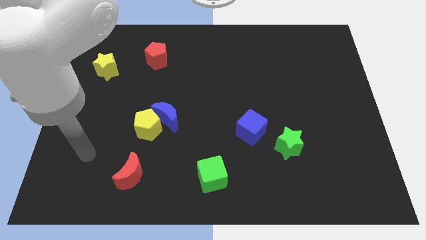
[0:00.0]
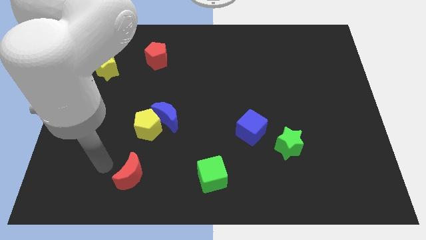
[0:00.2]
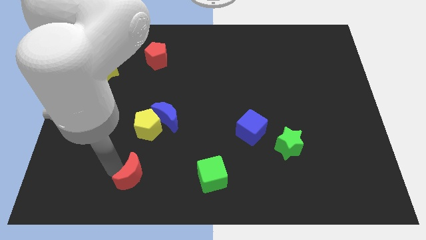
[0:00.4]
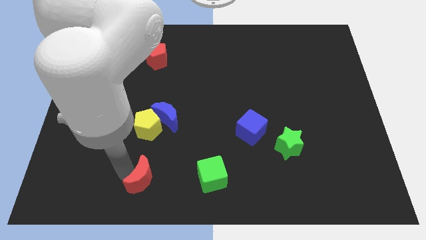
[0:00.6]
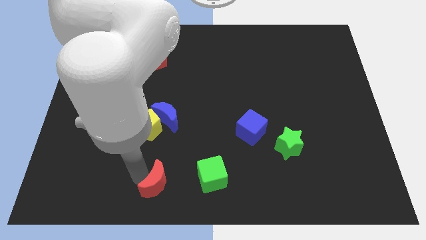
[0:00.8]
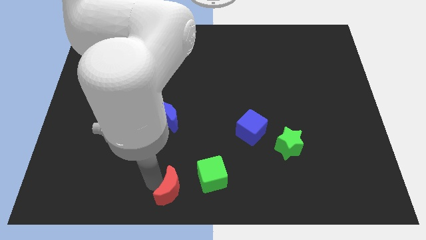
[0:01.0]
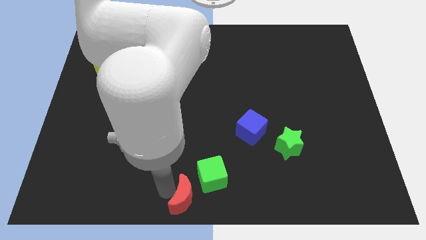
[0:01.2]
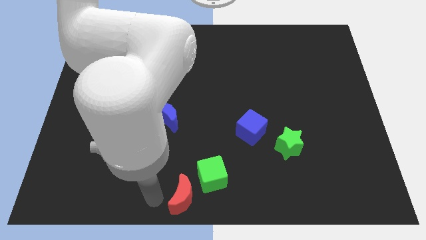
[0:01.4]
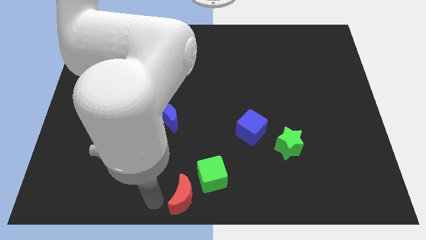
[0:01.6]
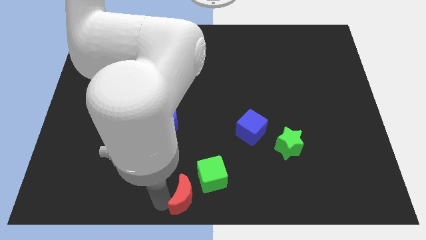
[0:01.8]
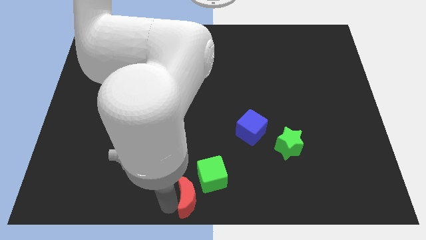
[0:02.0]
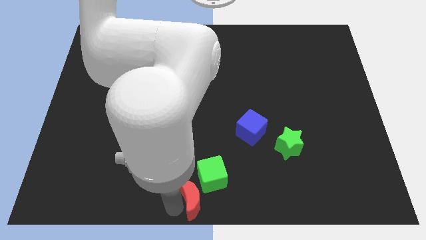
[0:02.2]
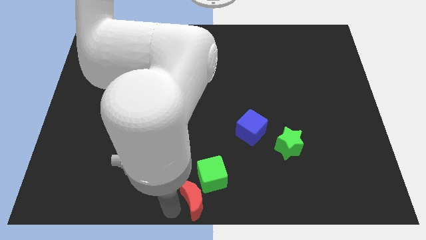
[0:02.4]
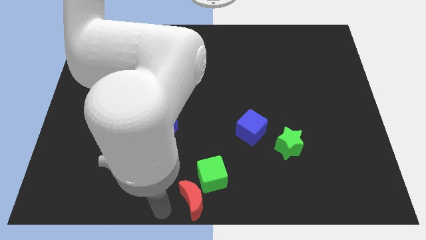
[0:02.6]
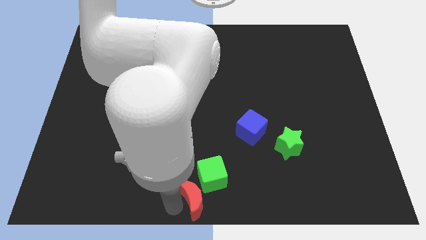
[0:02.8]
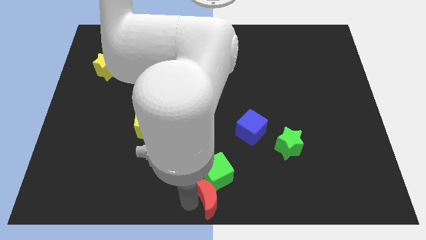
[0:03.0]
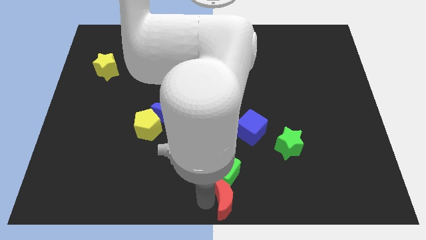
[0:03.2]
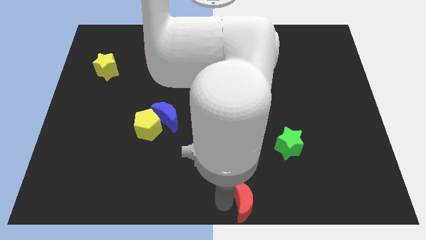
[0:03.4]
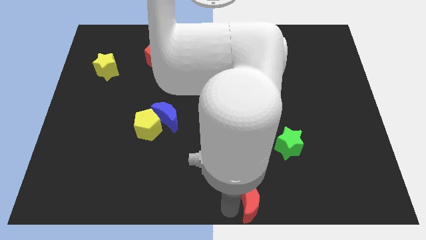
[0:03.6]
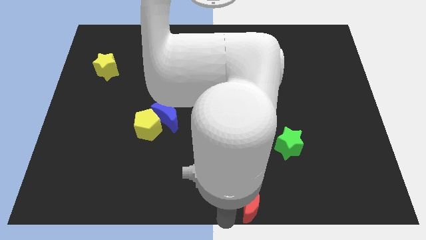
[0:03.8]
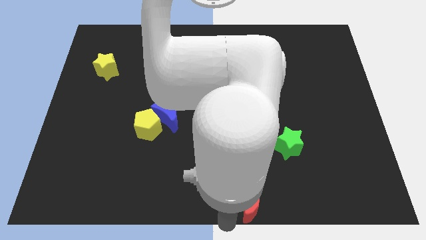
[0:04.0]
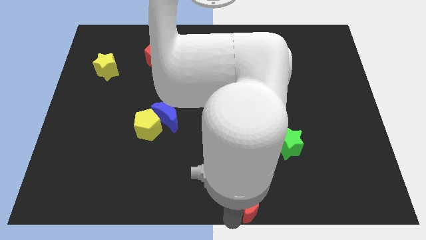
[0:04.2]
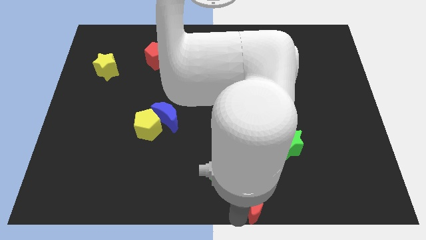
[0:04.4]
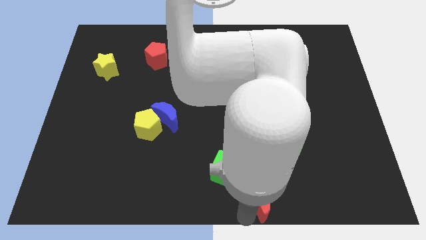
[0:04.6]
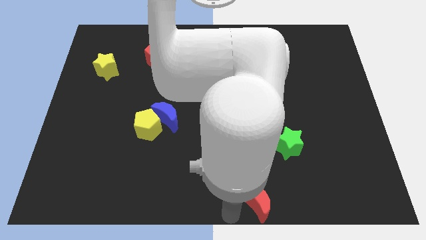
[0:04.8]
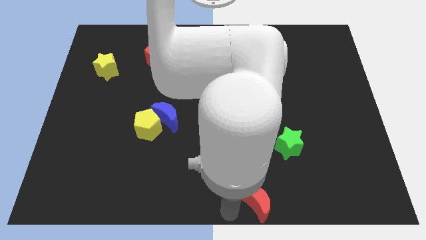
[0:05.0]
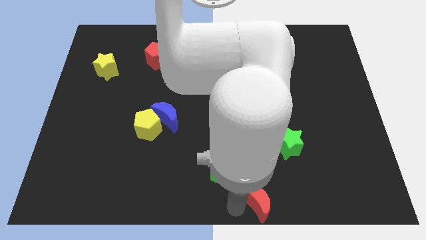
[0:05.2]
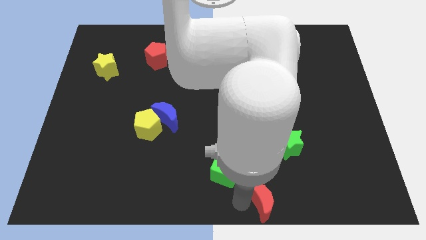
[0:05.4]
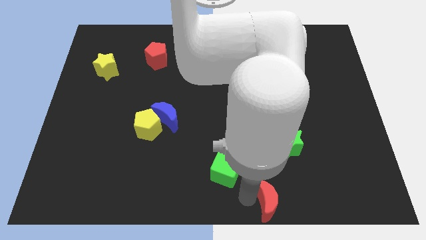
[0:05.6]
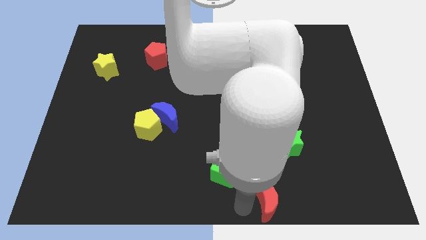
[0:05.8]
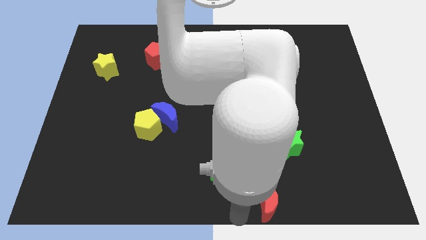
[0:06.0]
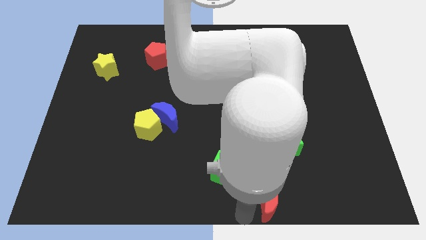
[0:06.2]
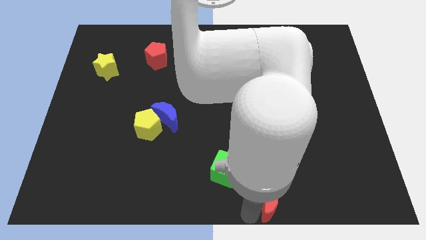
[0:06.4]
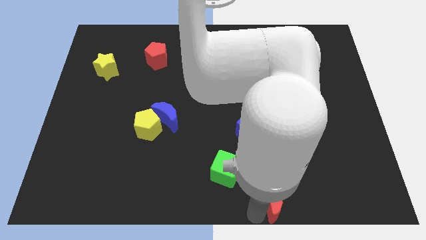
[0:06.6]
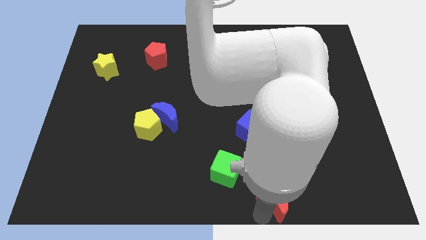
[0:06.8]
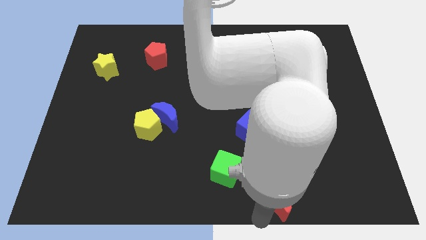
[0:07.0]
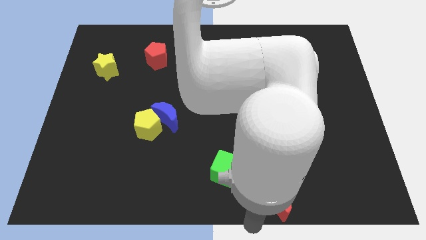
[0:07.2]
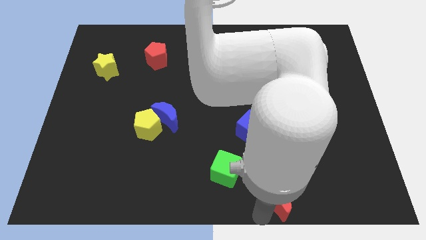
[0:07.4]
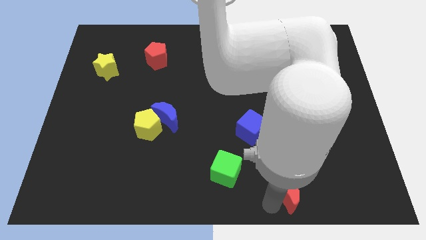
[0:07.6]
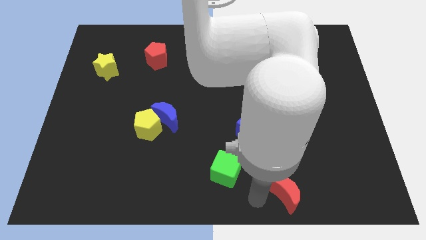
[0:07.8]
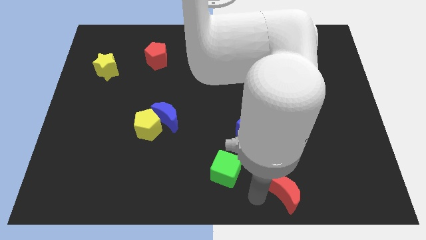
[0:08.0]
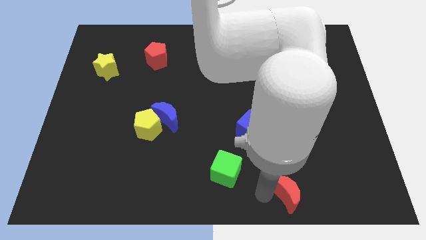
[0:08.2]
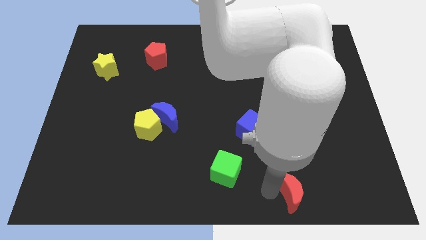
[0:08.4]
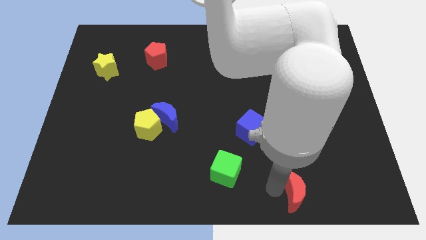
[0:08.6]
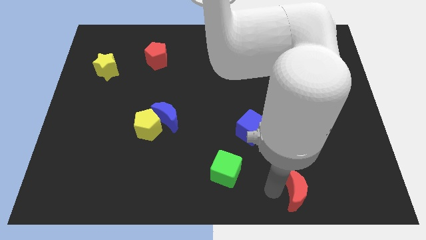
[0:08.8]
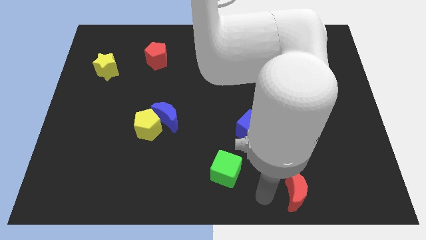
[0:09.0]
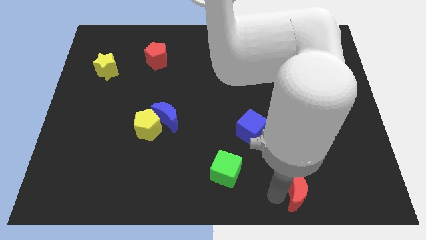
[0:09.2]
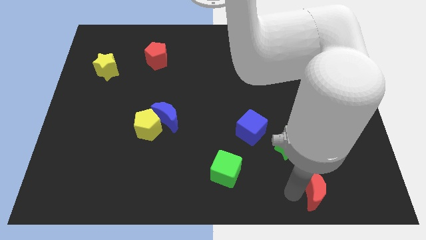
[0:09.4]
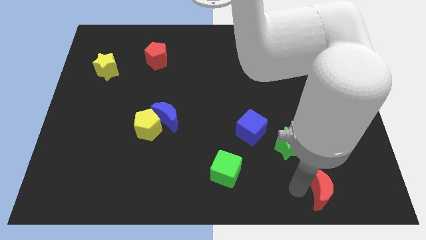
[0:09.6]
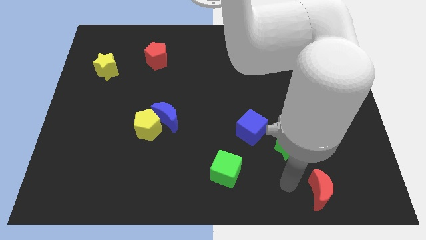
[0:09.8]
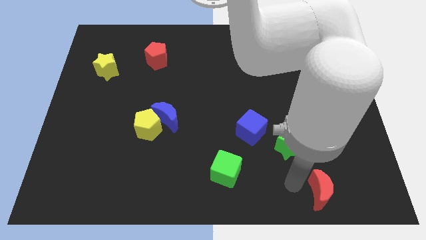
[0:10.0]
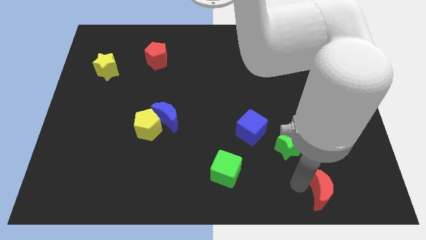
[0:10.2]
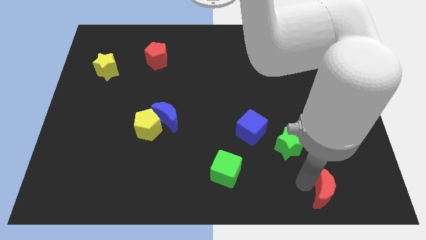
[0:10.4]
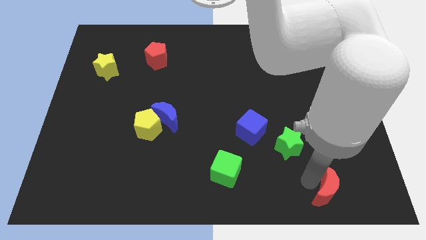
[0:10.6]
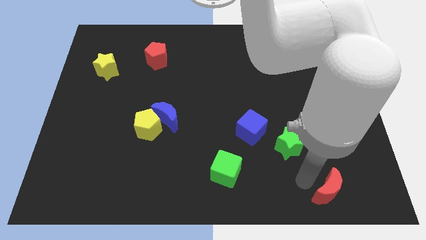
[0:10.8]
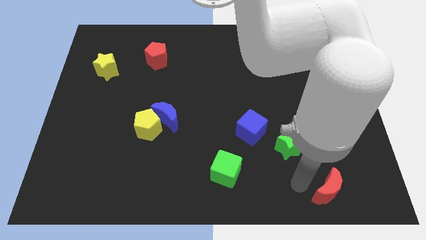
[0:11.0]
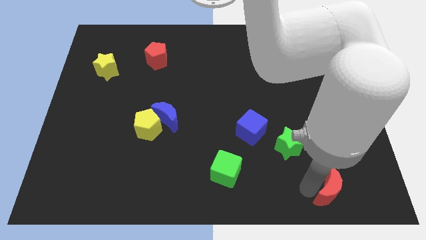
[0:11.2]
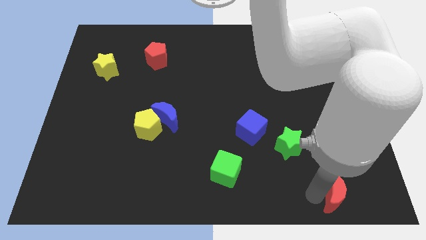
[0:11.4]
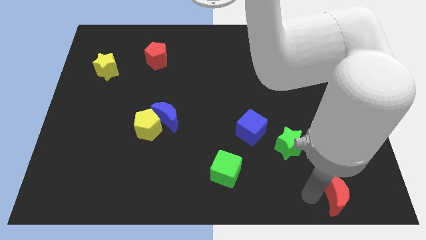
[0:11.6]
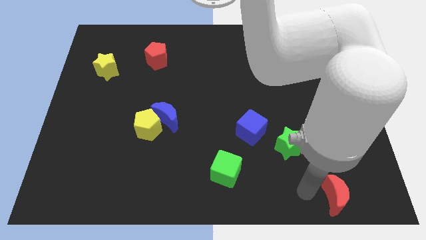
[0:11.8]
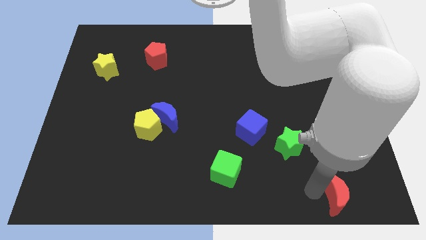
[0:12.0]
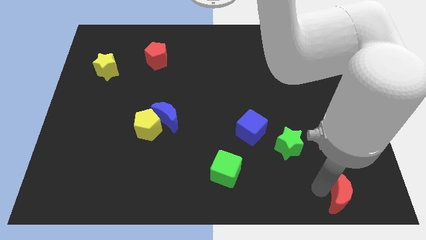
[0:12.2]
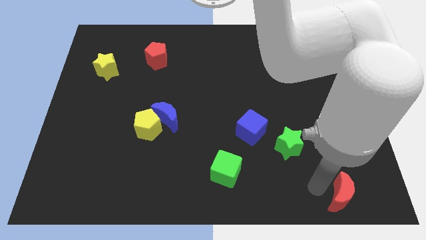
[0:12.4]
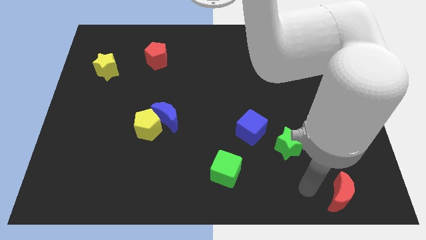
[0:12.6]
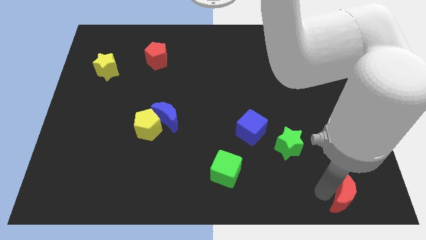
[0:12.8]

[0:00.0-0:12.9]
put the red moon to the bottom right corner
